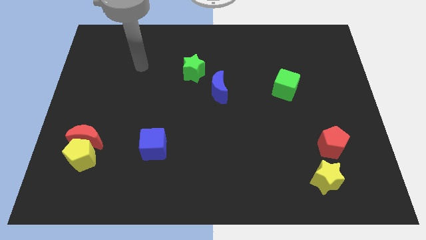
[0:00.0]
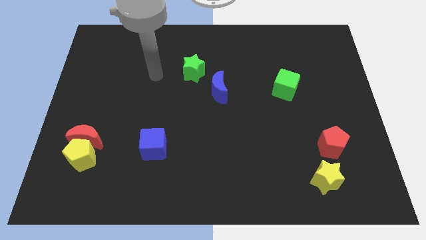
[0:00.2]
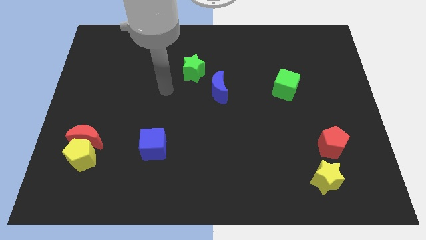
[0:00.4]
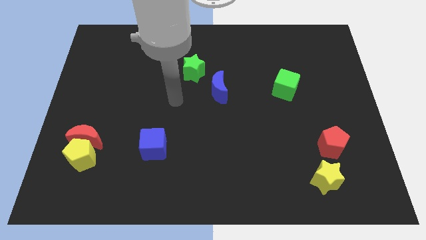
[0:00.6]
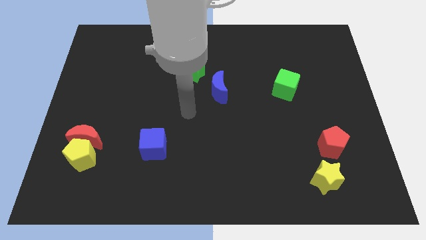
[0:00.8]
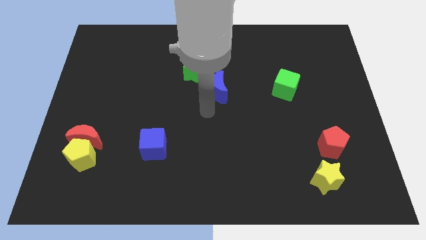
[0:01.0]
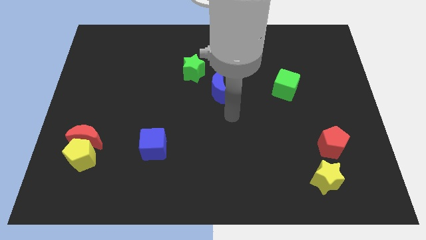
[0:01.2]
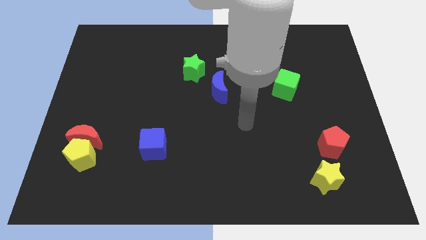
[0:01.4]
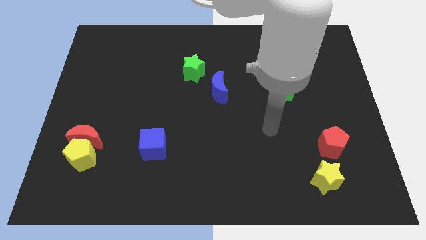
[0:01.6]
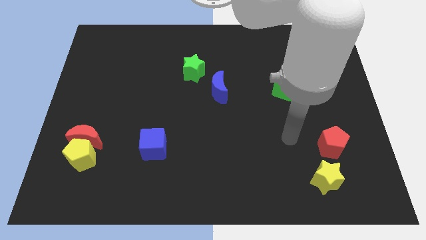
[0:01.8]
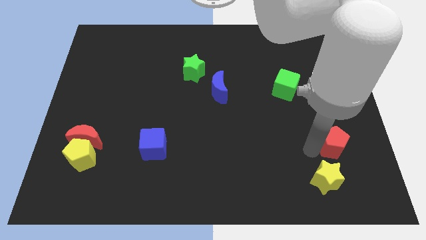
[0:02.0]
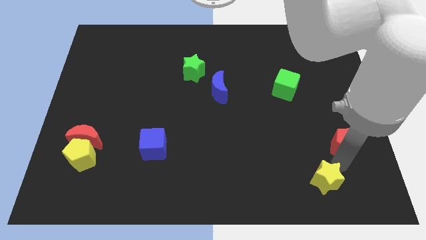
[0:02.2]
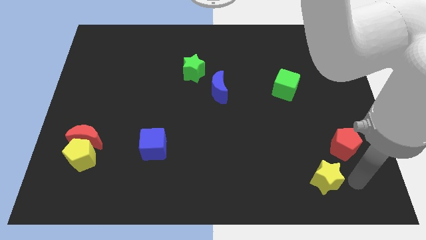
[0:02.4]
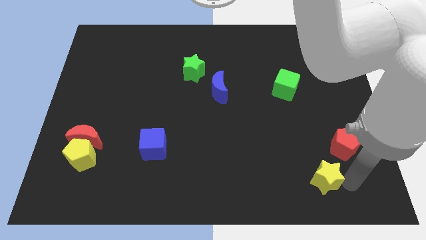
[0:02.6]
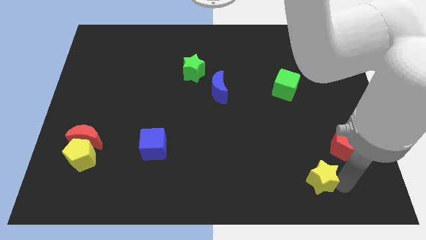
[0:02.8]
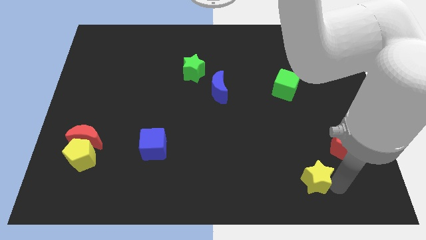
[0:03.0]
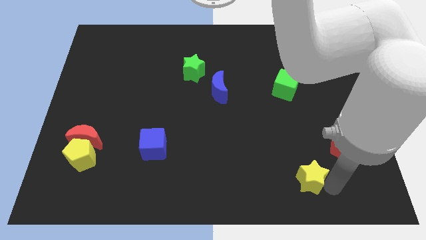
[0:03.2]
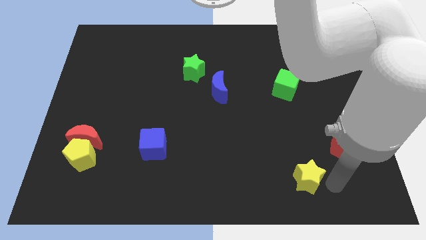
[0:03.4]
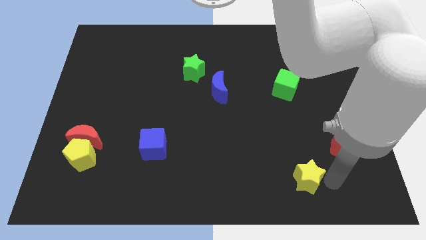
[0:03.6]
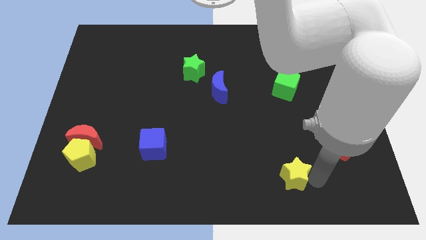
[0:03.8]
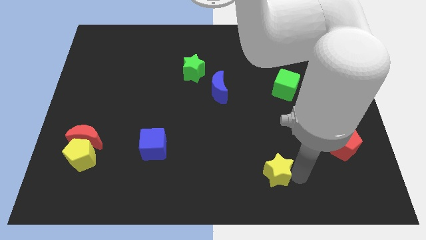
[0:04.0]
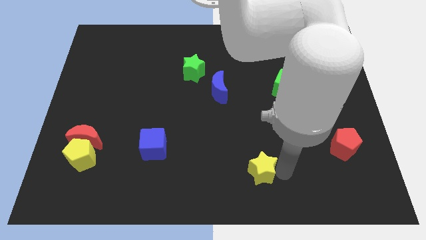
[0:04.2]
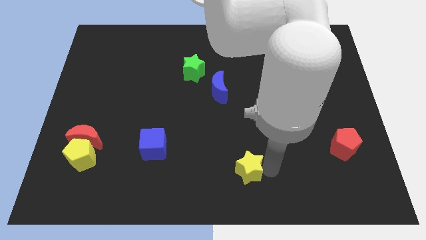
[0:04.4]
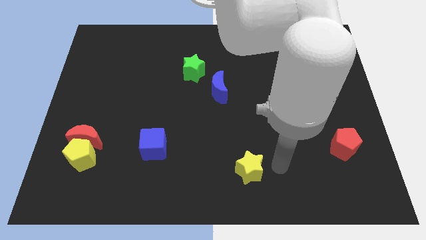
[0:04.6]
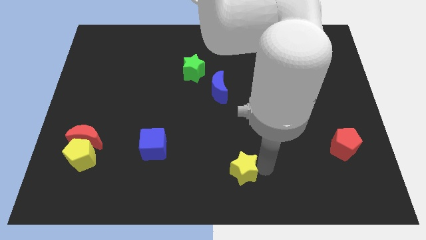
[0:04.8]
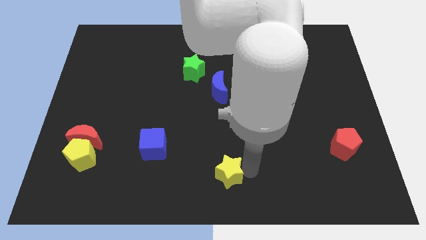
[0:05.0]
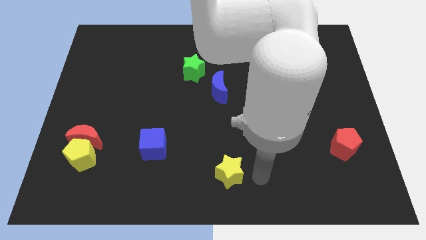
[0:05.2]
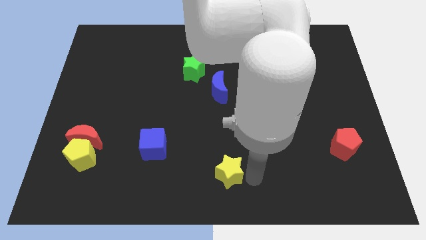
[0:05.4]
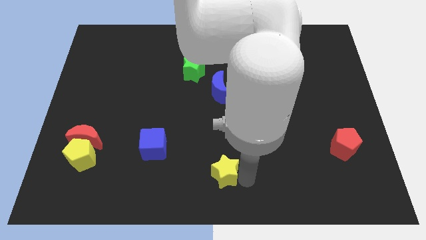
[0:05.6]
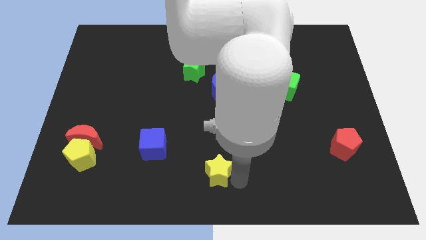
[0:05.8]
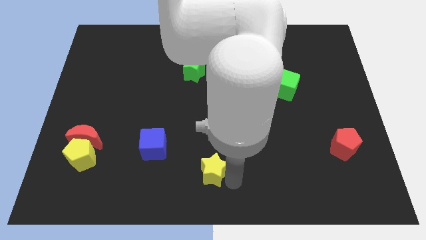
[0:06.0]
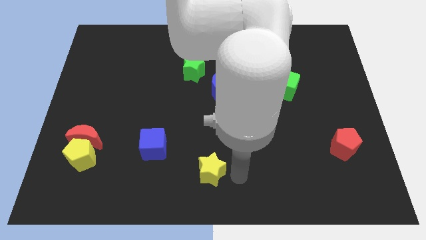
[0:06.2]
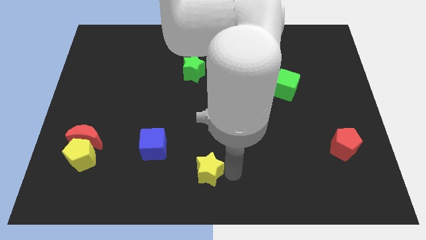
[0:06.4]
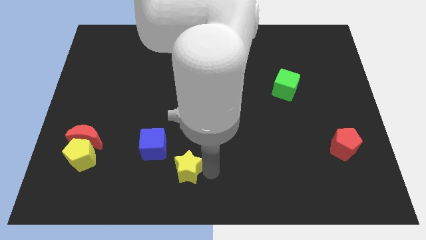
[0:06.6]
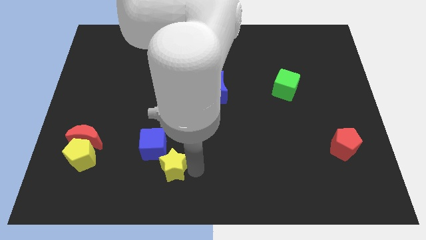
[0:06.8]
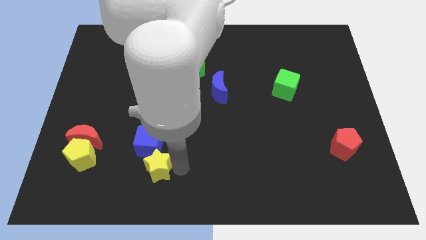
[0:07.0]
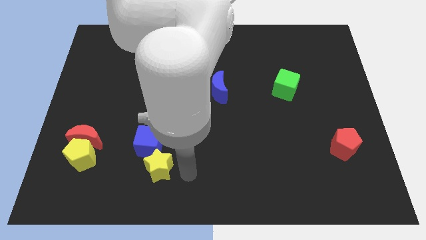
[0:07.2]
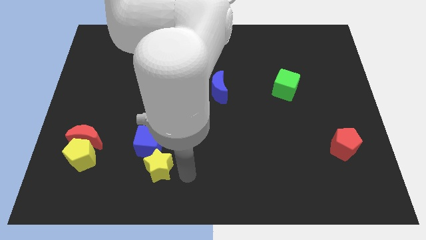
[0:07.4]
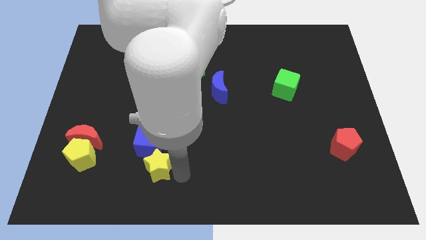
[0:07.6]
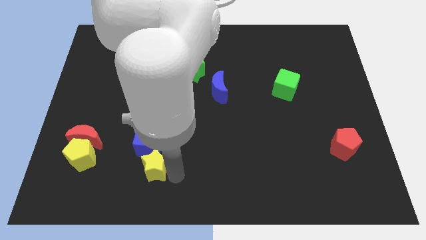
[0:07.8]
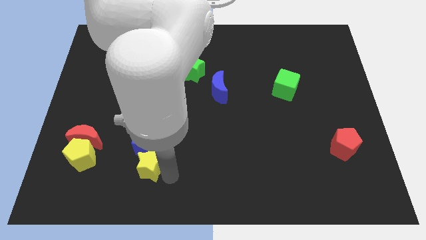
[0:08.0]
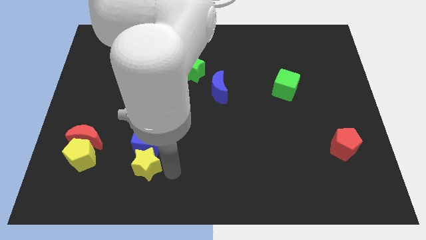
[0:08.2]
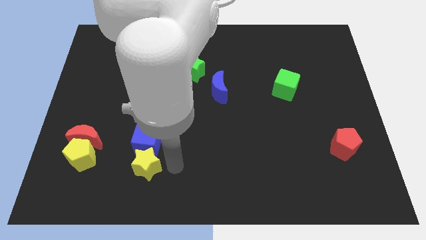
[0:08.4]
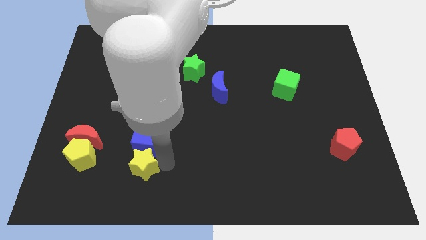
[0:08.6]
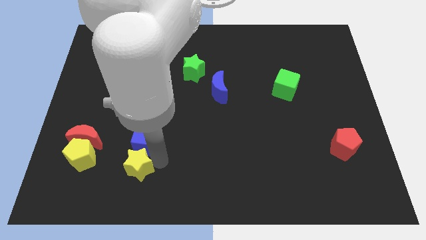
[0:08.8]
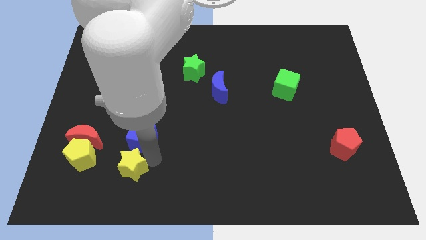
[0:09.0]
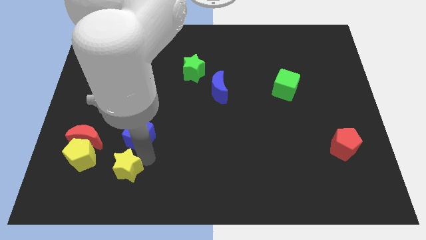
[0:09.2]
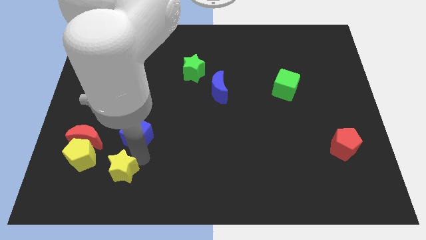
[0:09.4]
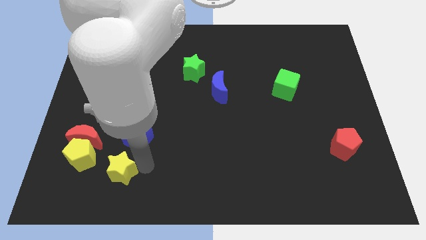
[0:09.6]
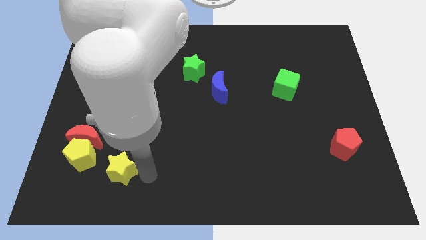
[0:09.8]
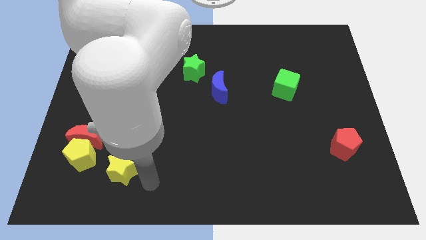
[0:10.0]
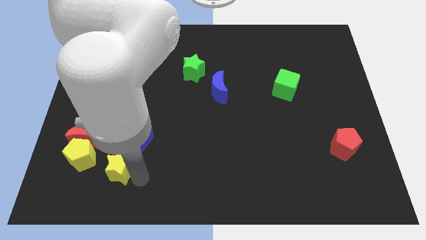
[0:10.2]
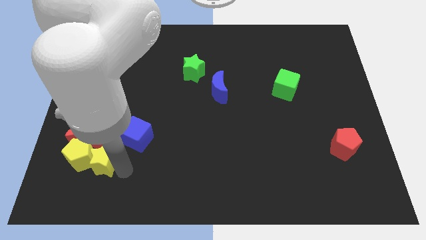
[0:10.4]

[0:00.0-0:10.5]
put the yellow star towards the yellow pentagon

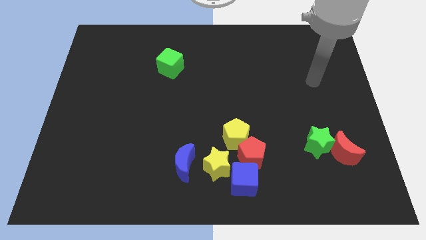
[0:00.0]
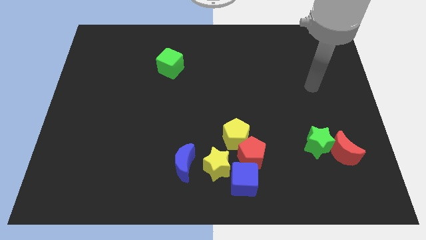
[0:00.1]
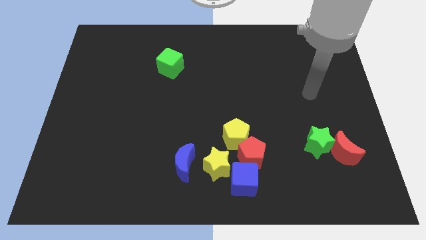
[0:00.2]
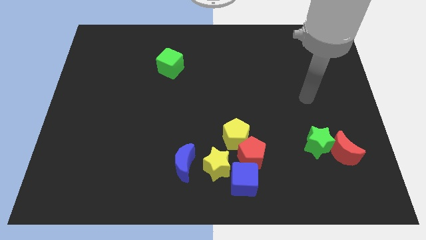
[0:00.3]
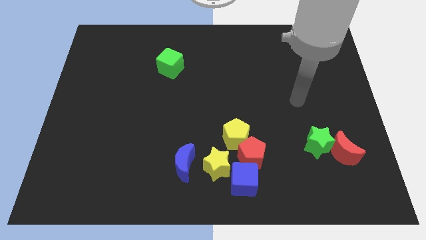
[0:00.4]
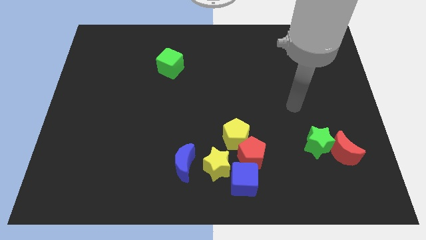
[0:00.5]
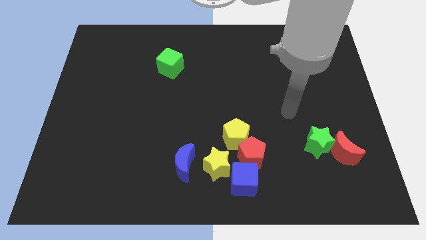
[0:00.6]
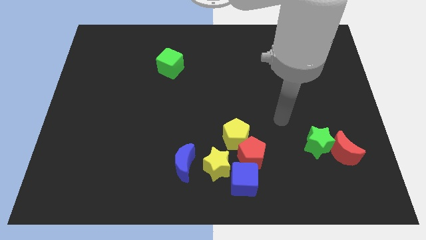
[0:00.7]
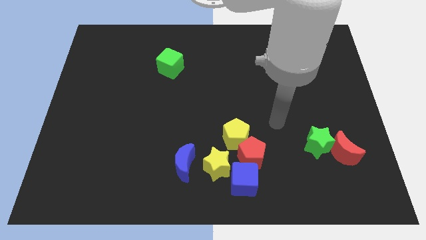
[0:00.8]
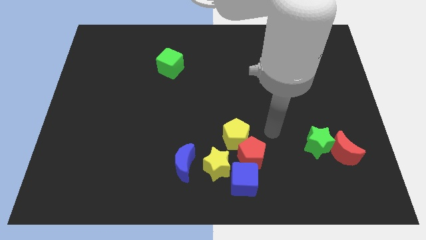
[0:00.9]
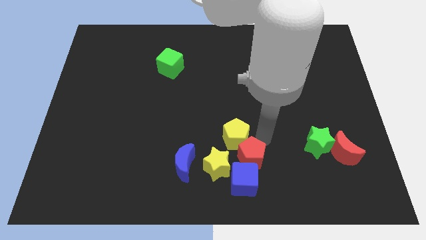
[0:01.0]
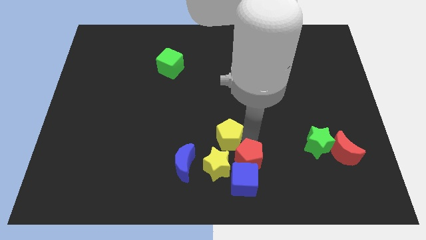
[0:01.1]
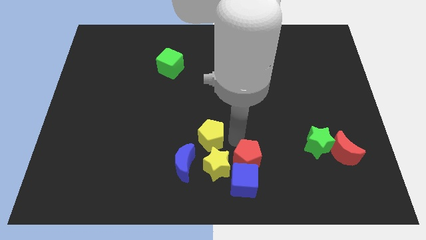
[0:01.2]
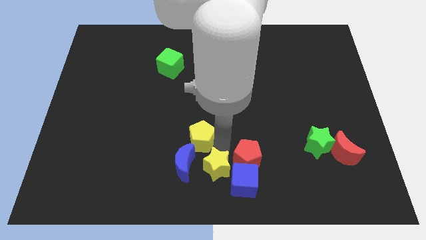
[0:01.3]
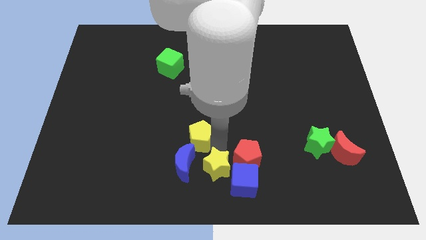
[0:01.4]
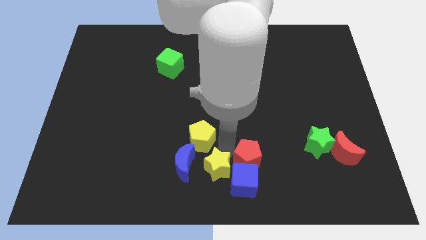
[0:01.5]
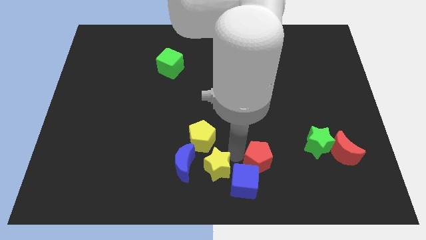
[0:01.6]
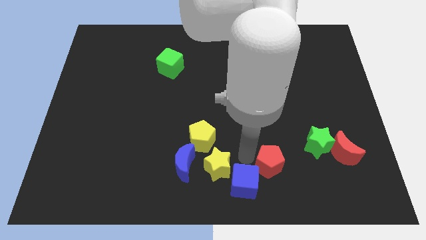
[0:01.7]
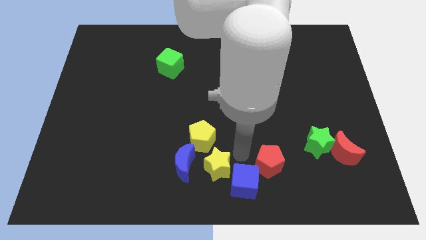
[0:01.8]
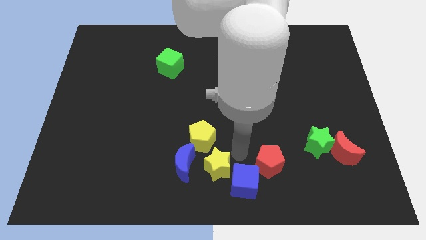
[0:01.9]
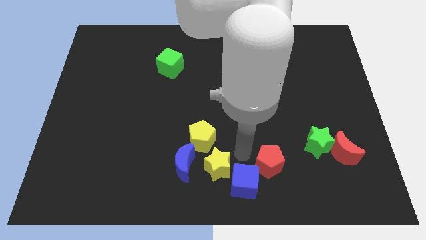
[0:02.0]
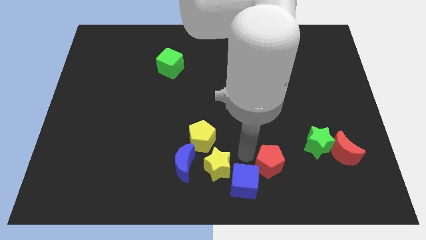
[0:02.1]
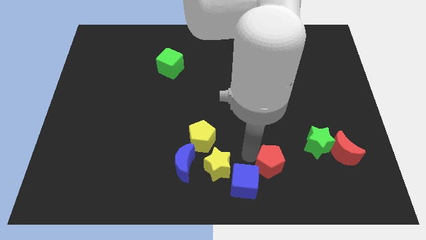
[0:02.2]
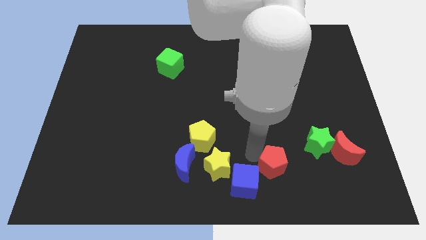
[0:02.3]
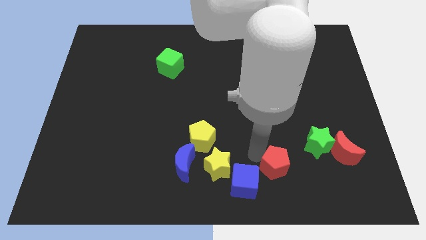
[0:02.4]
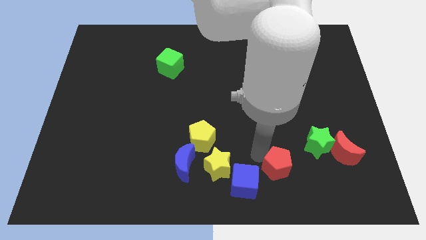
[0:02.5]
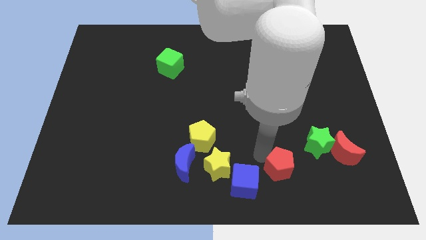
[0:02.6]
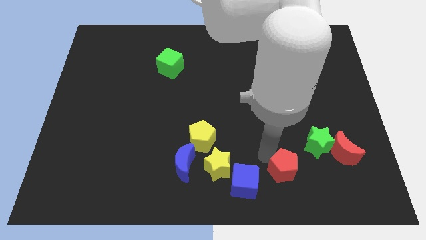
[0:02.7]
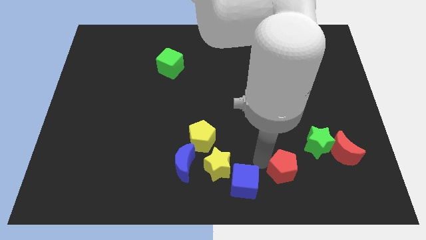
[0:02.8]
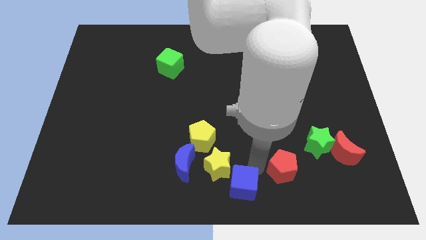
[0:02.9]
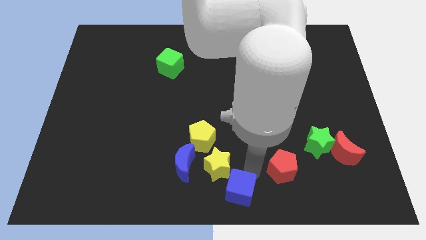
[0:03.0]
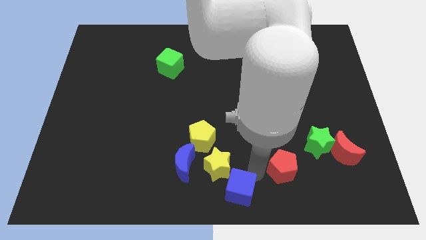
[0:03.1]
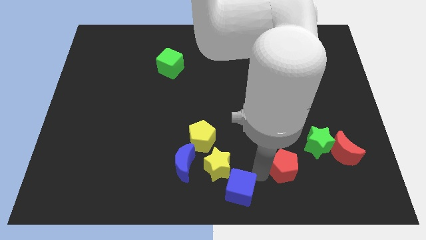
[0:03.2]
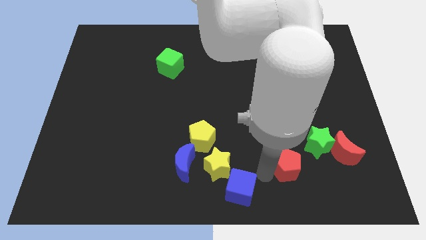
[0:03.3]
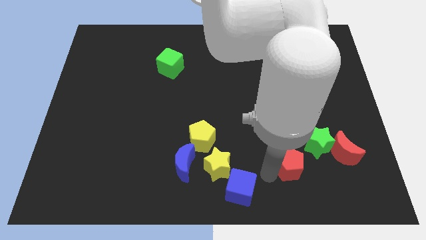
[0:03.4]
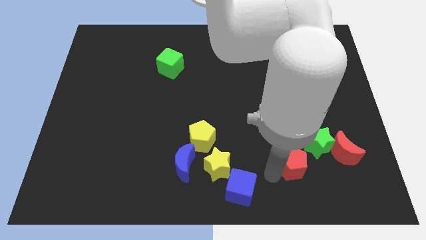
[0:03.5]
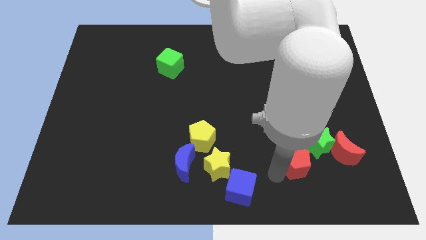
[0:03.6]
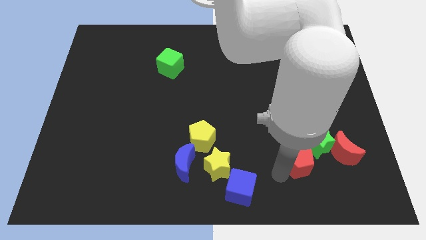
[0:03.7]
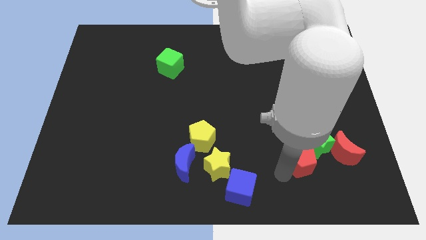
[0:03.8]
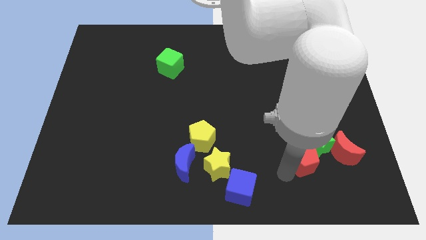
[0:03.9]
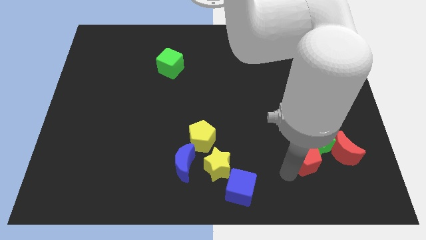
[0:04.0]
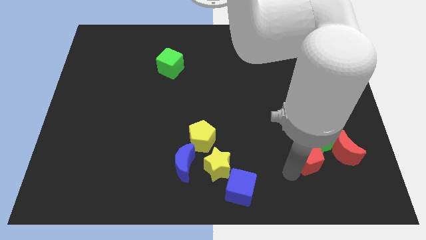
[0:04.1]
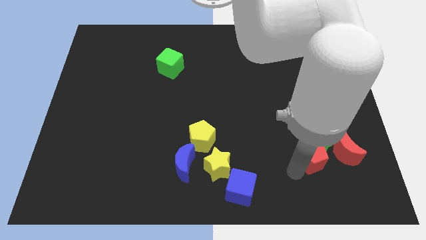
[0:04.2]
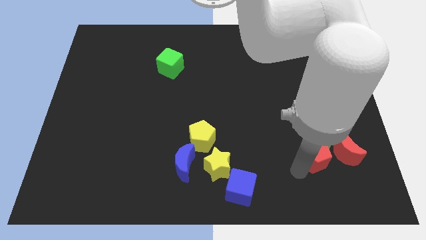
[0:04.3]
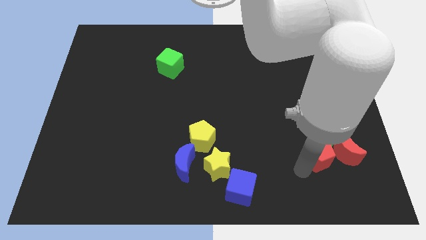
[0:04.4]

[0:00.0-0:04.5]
slide the red pentagon towards the red moon
